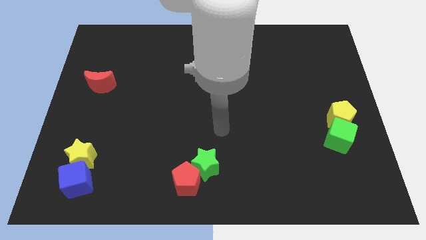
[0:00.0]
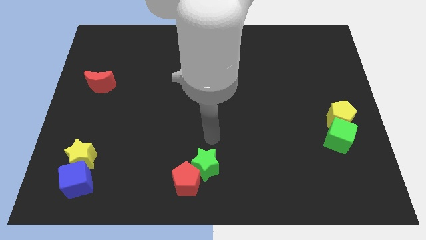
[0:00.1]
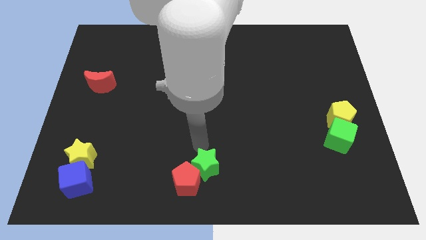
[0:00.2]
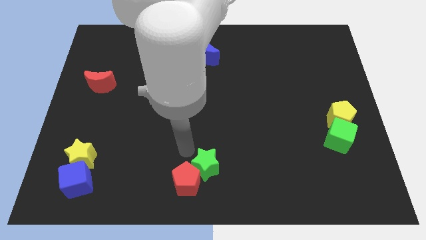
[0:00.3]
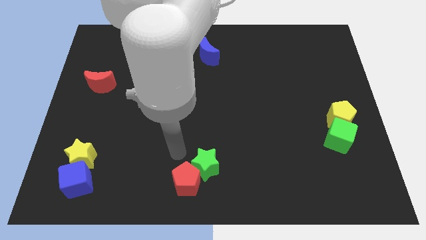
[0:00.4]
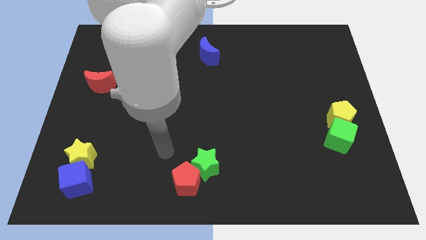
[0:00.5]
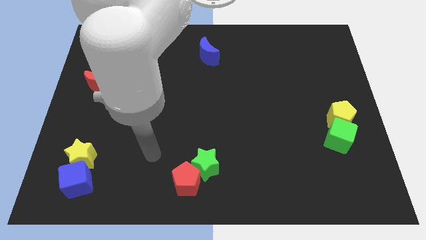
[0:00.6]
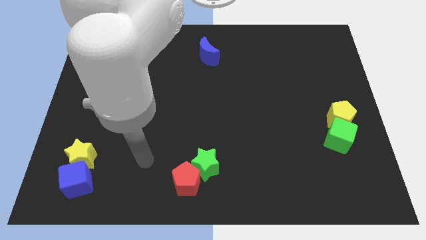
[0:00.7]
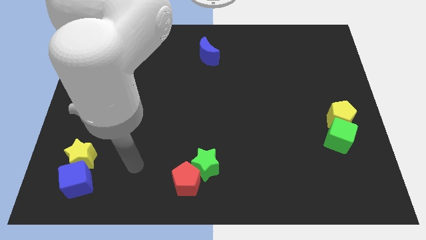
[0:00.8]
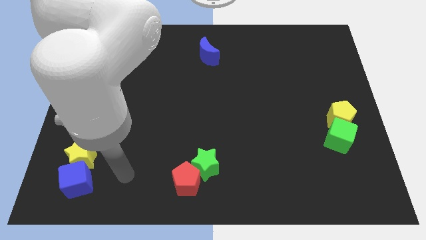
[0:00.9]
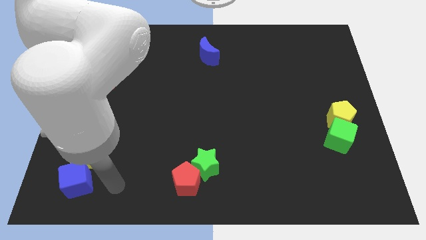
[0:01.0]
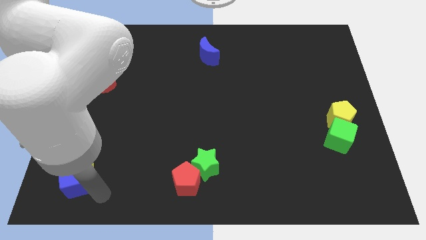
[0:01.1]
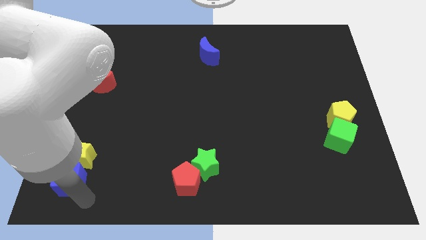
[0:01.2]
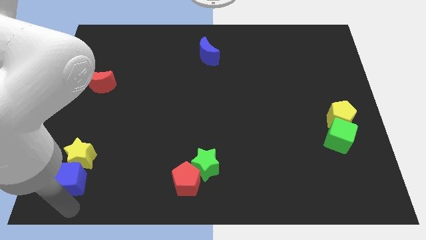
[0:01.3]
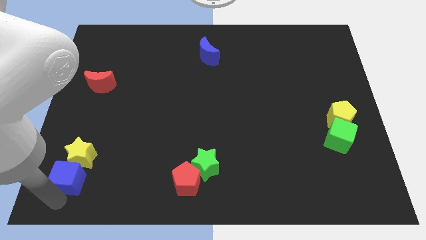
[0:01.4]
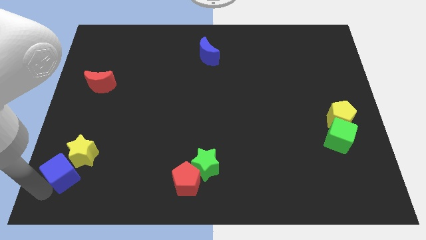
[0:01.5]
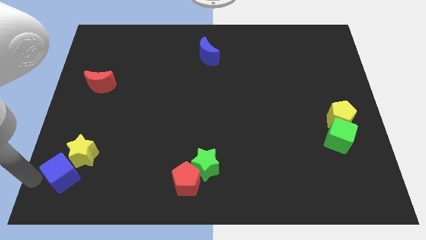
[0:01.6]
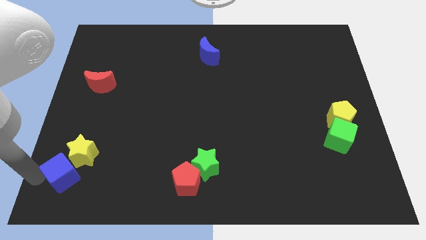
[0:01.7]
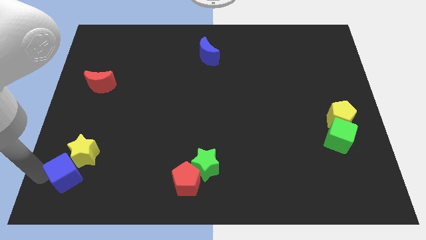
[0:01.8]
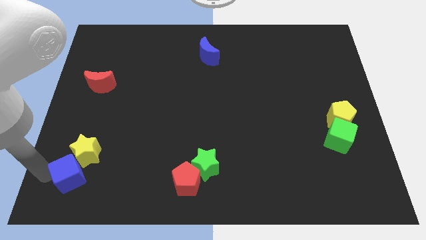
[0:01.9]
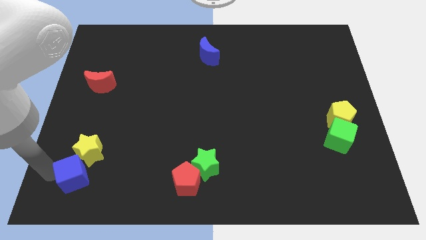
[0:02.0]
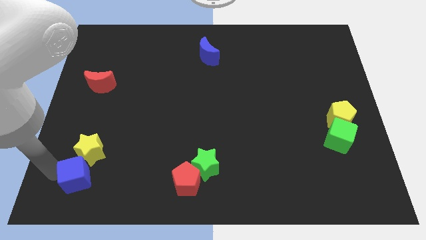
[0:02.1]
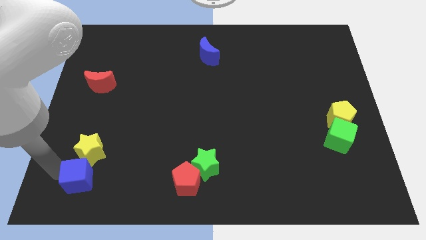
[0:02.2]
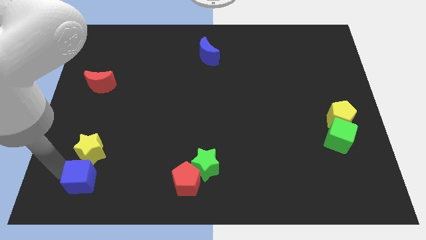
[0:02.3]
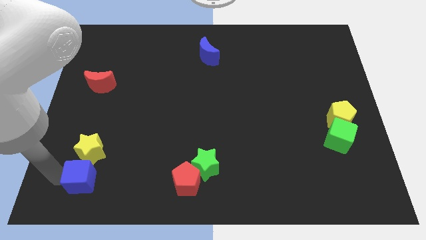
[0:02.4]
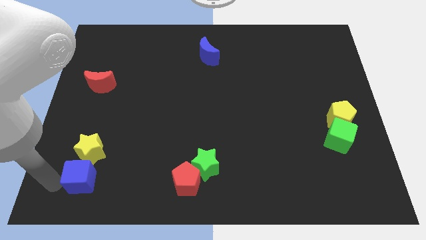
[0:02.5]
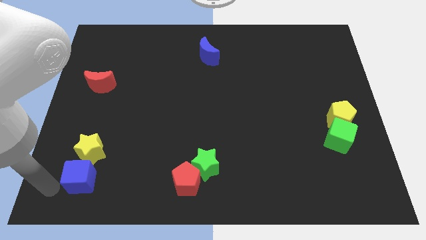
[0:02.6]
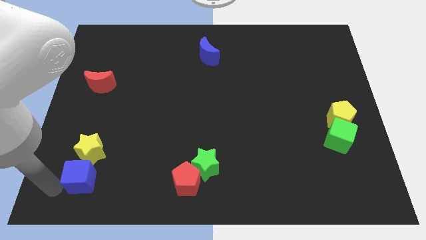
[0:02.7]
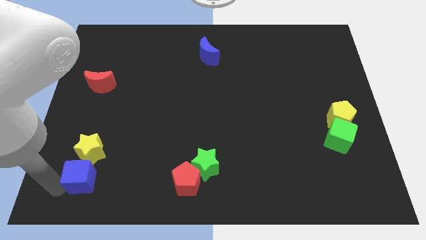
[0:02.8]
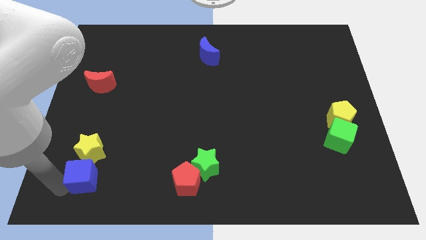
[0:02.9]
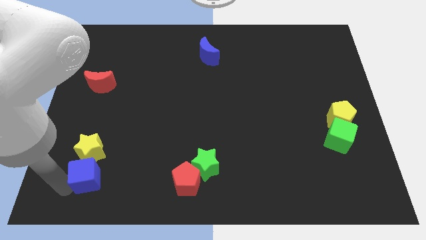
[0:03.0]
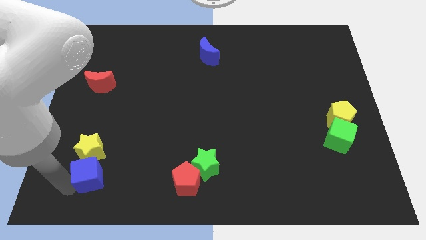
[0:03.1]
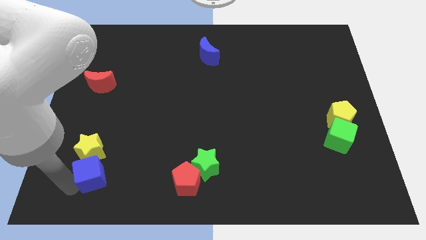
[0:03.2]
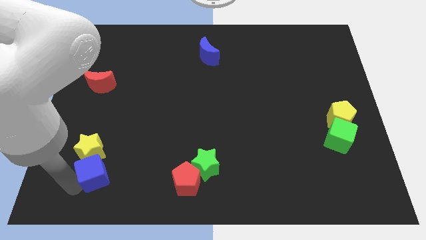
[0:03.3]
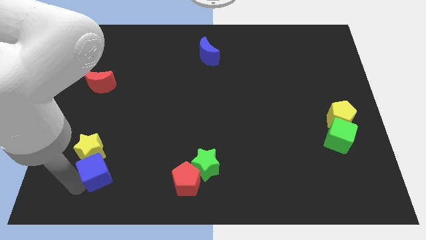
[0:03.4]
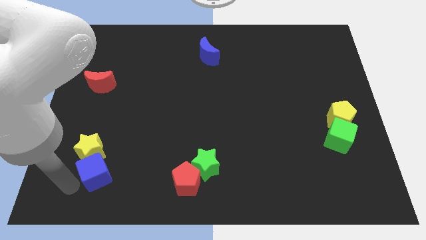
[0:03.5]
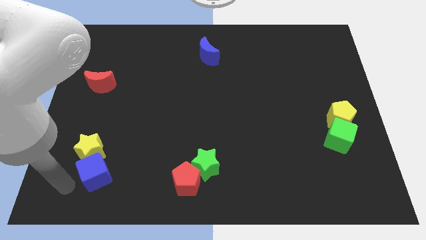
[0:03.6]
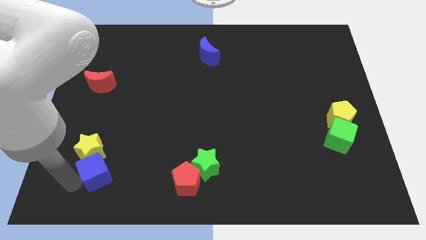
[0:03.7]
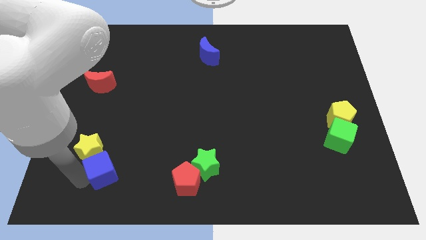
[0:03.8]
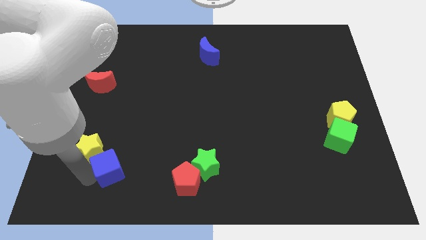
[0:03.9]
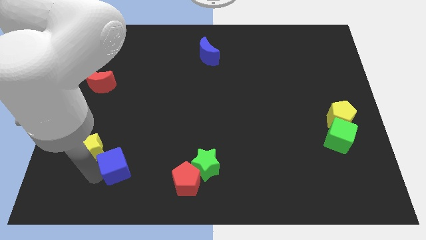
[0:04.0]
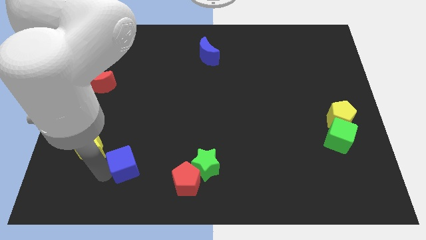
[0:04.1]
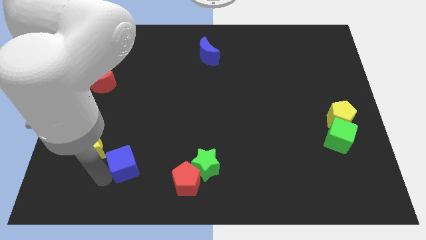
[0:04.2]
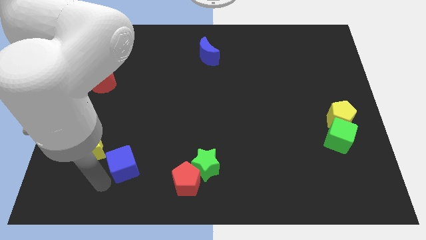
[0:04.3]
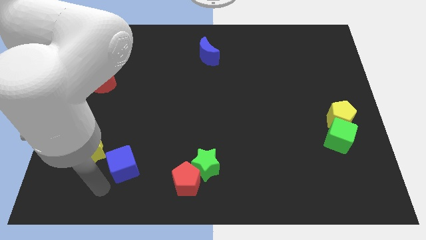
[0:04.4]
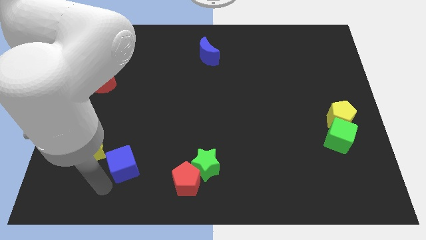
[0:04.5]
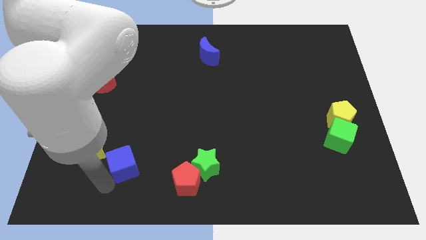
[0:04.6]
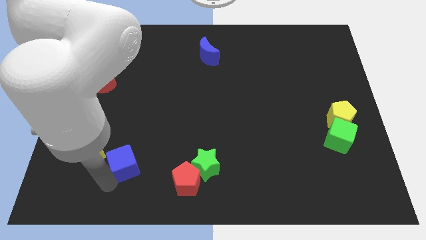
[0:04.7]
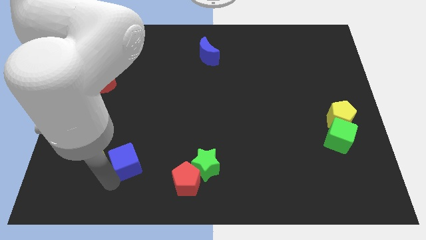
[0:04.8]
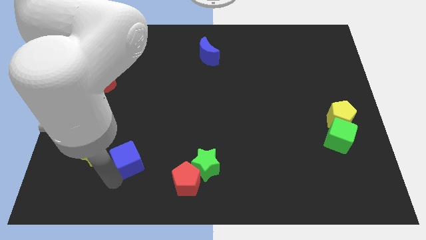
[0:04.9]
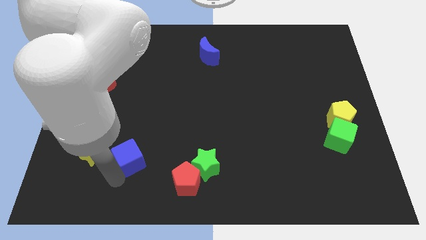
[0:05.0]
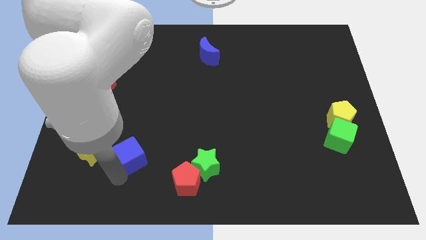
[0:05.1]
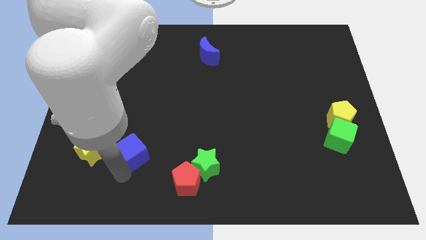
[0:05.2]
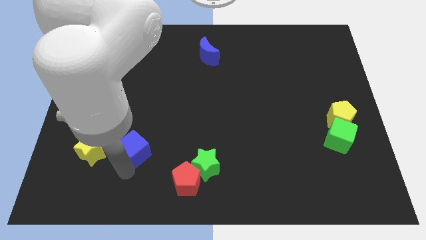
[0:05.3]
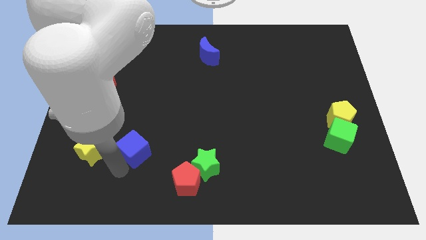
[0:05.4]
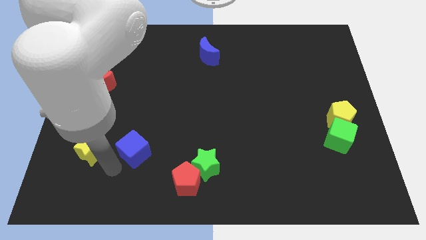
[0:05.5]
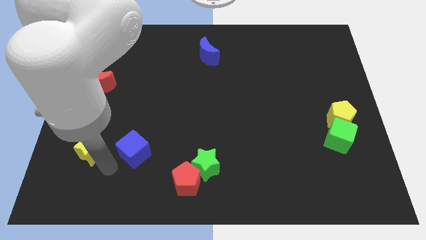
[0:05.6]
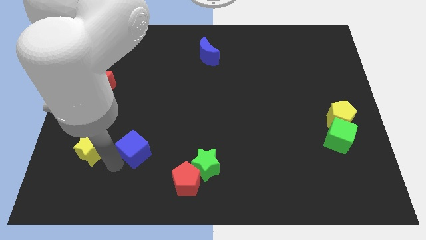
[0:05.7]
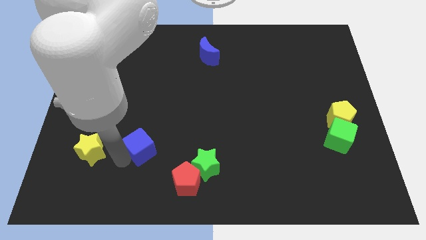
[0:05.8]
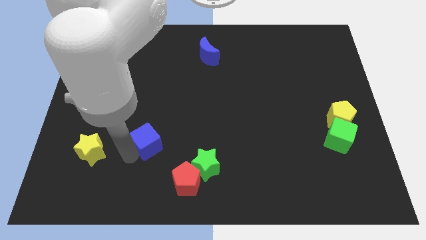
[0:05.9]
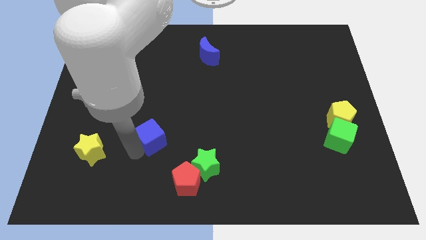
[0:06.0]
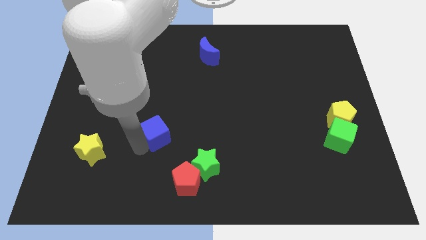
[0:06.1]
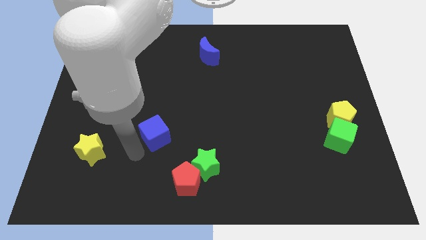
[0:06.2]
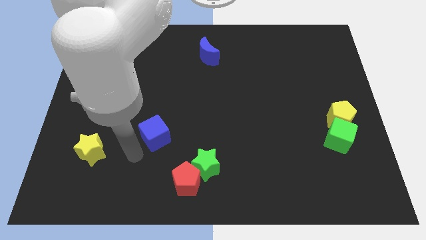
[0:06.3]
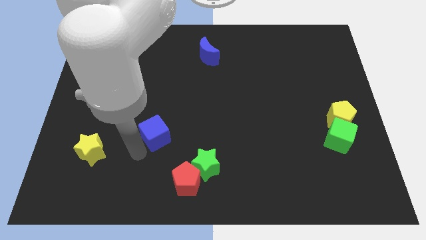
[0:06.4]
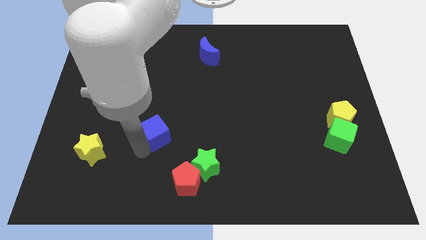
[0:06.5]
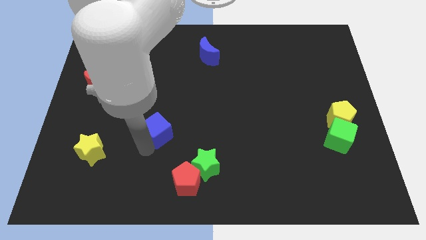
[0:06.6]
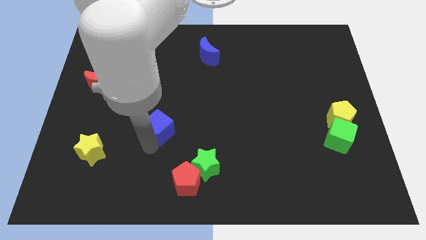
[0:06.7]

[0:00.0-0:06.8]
slide the blue cube up and to the right diagonally

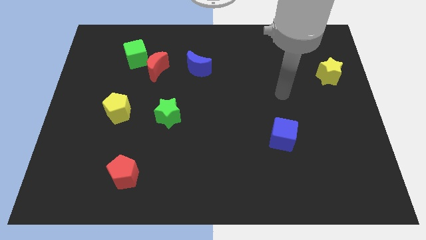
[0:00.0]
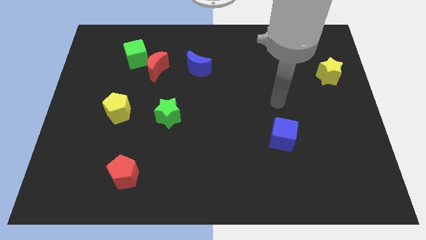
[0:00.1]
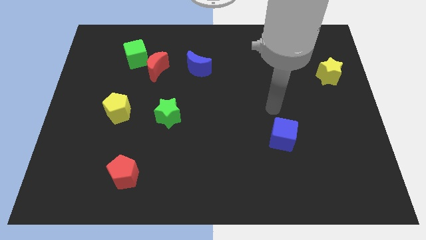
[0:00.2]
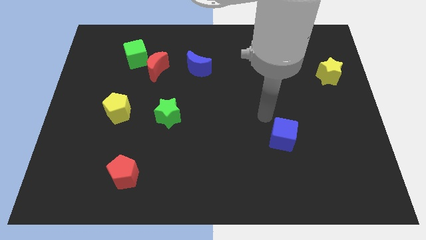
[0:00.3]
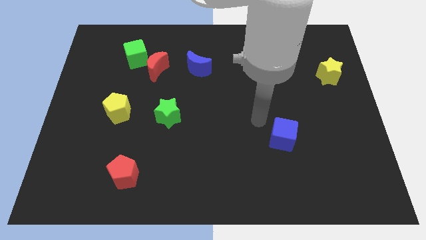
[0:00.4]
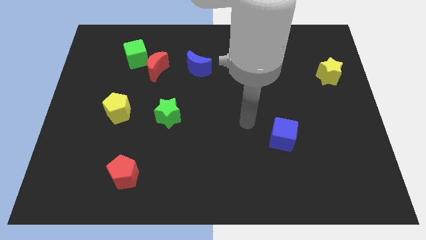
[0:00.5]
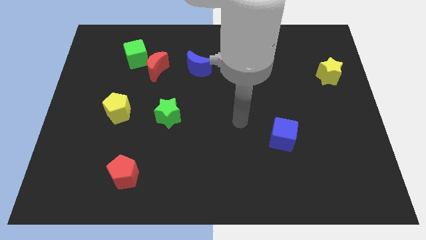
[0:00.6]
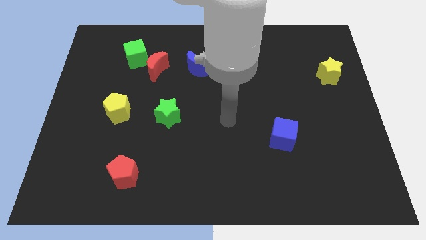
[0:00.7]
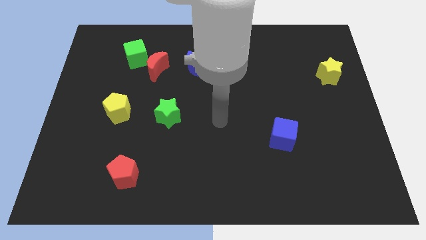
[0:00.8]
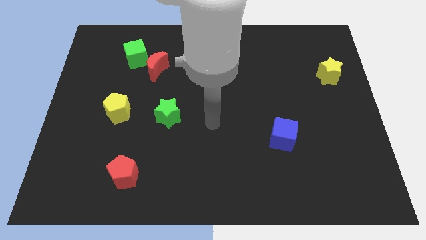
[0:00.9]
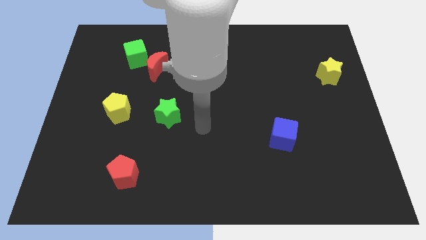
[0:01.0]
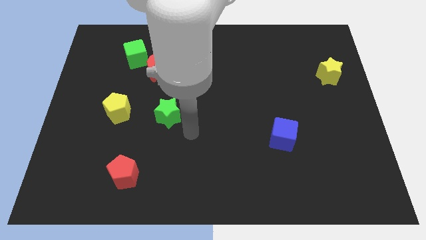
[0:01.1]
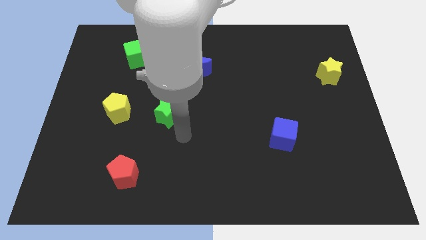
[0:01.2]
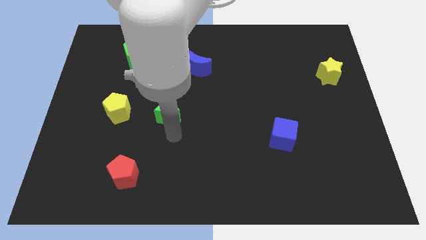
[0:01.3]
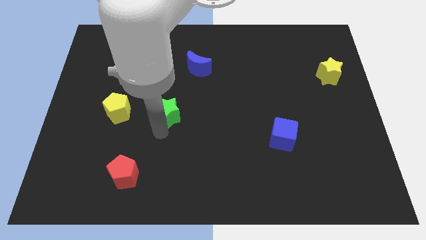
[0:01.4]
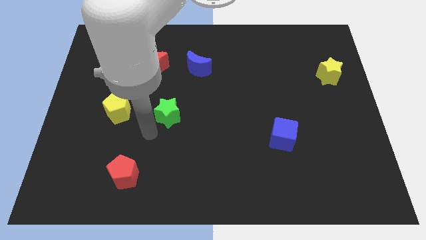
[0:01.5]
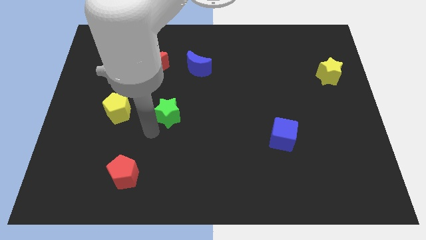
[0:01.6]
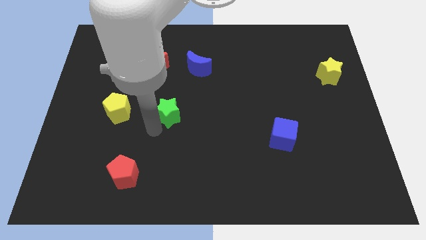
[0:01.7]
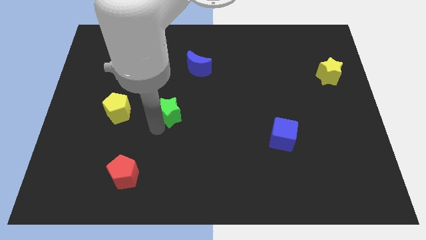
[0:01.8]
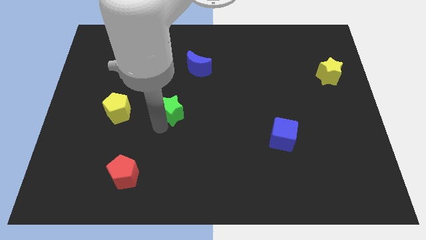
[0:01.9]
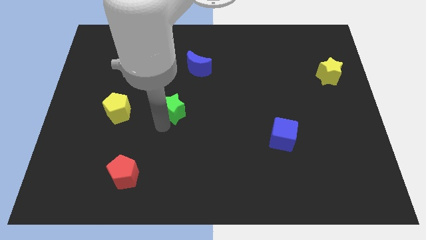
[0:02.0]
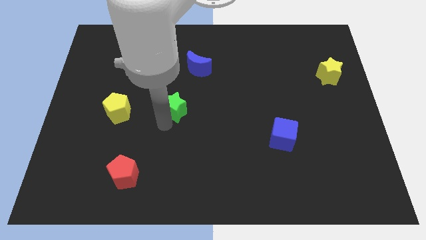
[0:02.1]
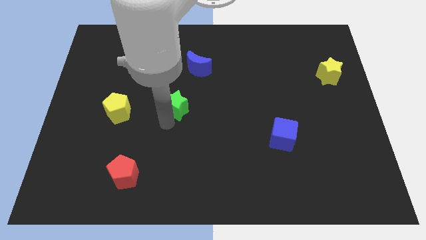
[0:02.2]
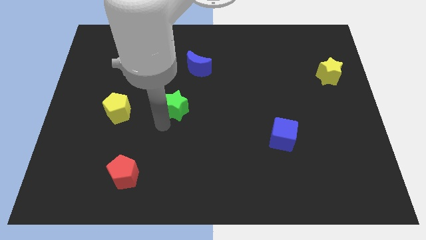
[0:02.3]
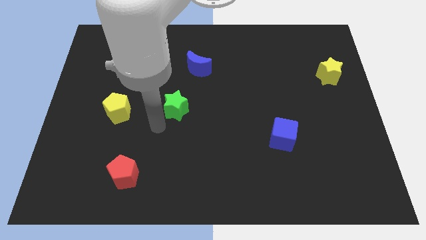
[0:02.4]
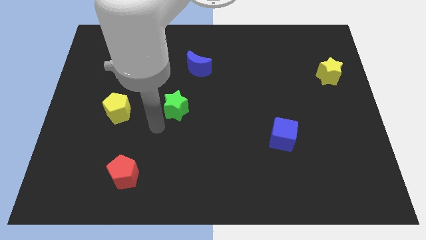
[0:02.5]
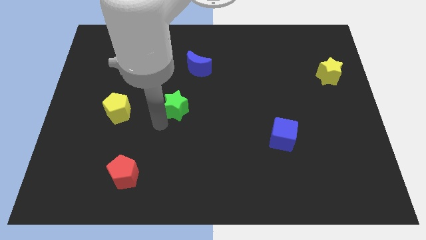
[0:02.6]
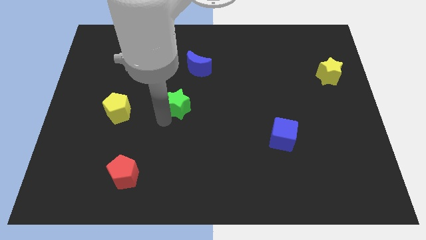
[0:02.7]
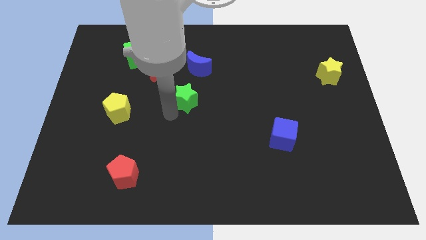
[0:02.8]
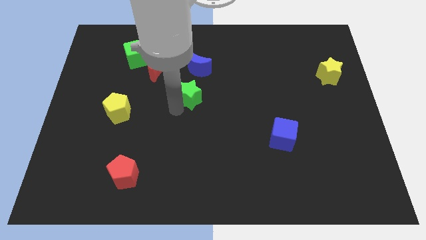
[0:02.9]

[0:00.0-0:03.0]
move the green star a little upwards and then right
